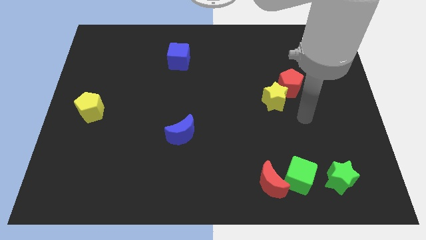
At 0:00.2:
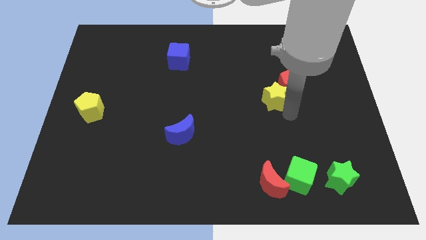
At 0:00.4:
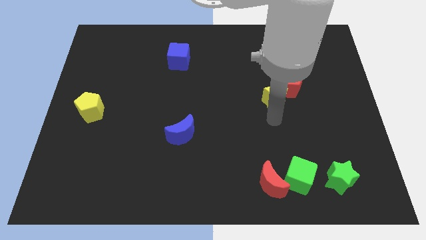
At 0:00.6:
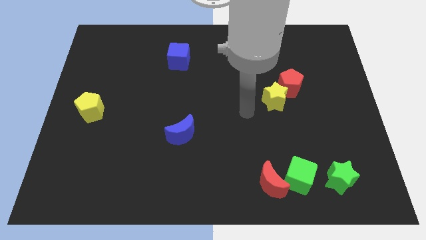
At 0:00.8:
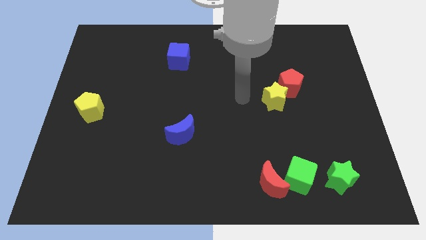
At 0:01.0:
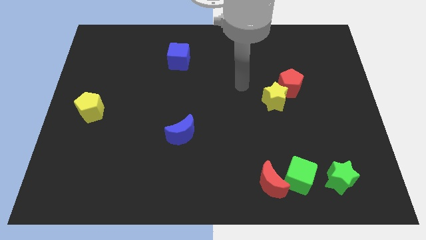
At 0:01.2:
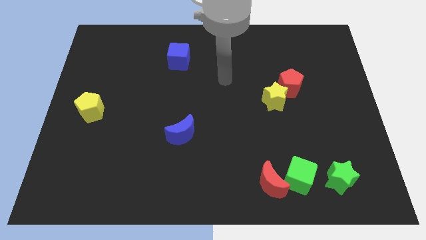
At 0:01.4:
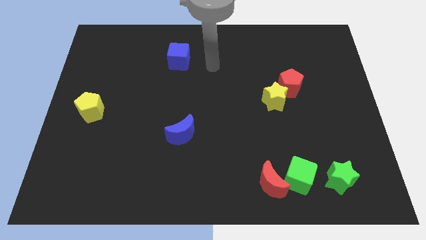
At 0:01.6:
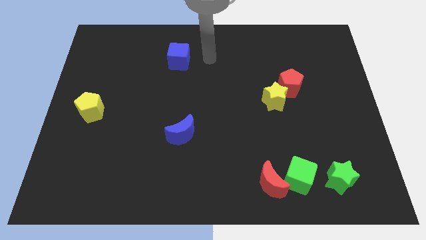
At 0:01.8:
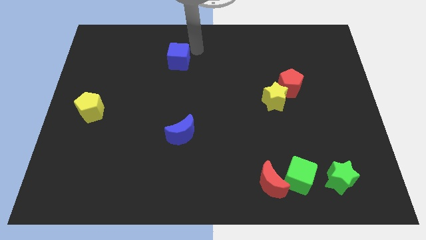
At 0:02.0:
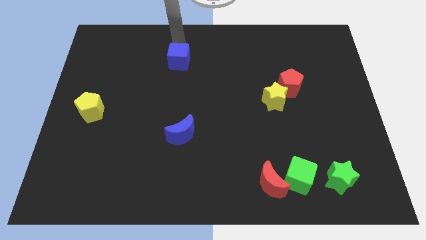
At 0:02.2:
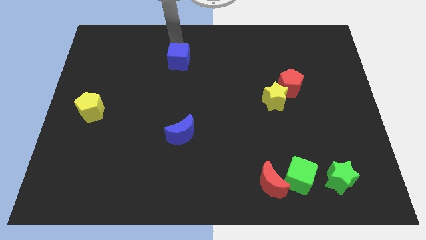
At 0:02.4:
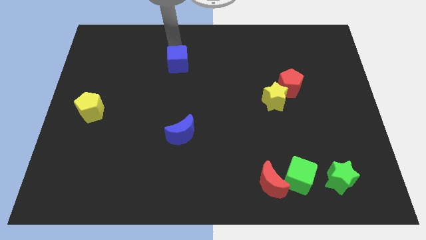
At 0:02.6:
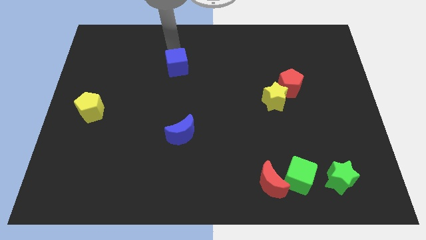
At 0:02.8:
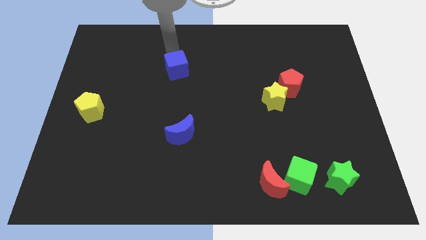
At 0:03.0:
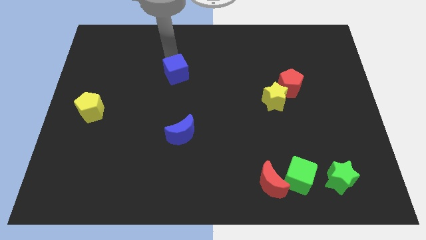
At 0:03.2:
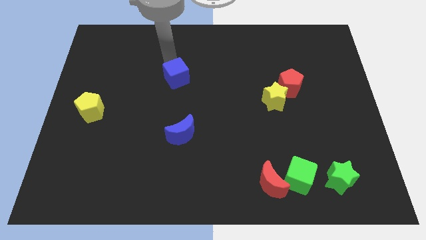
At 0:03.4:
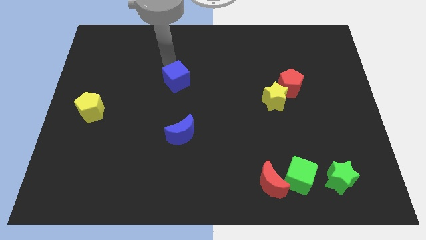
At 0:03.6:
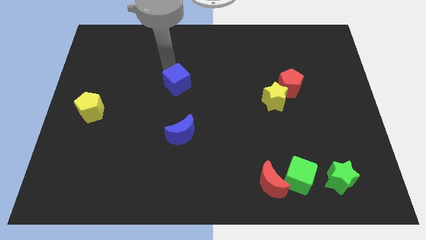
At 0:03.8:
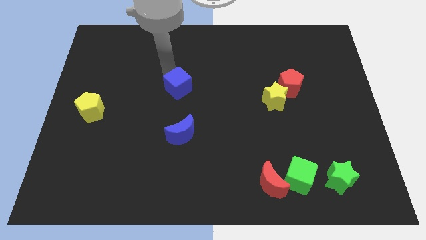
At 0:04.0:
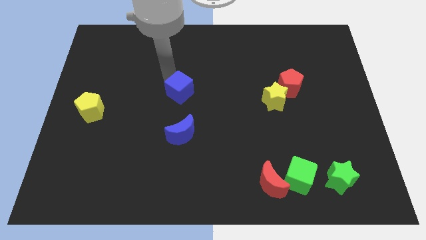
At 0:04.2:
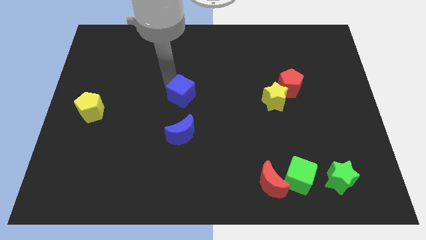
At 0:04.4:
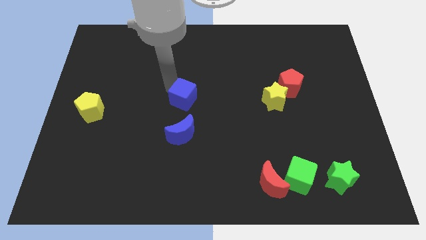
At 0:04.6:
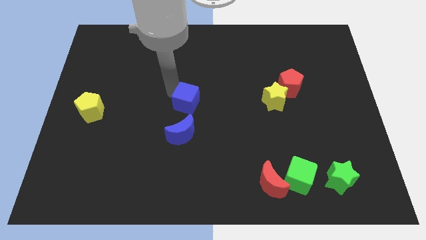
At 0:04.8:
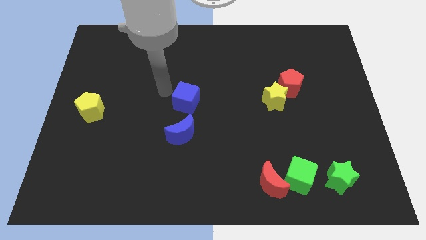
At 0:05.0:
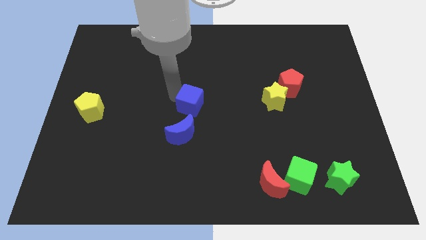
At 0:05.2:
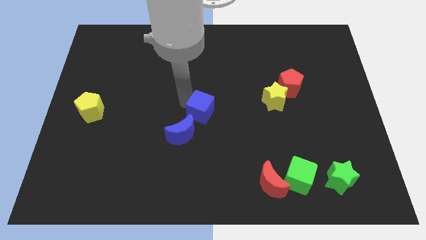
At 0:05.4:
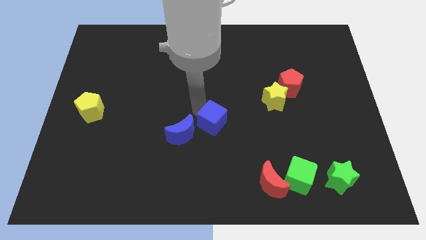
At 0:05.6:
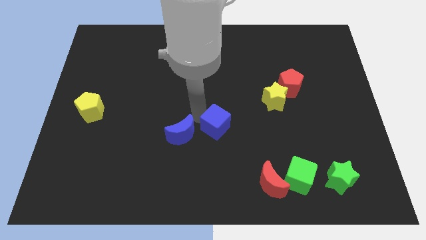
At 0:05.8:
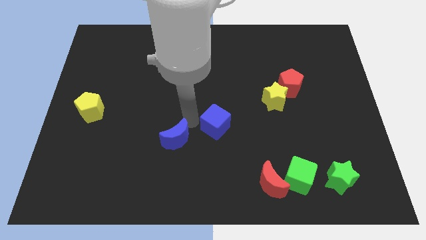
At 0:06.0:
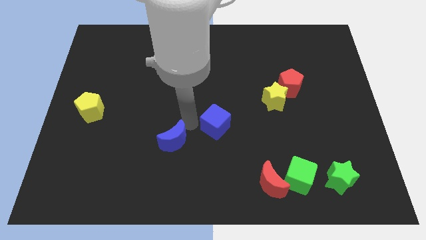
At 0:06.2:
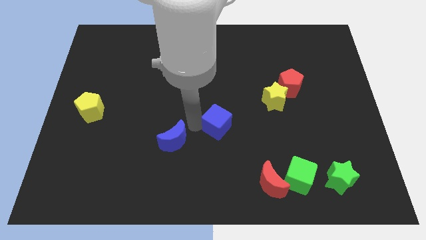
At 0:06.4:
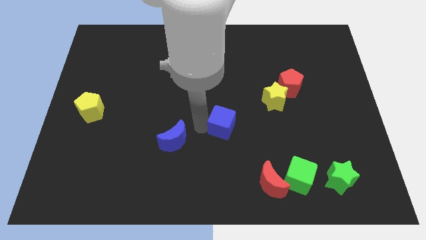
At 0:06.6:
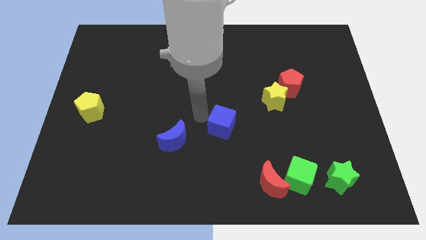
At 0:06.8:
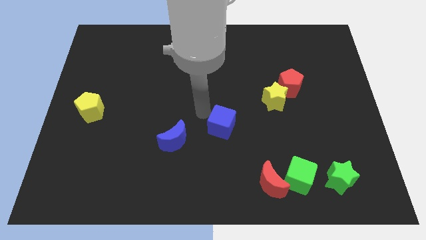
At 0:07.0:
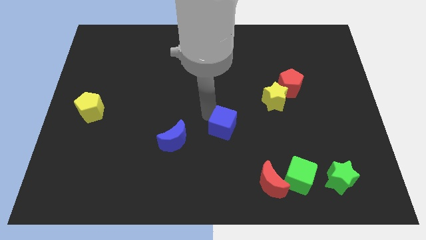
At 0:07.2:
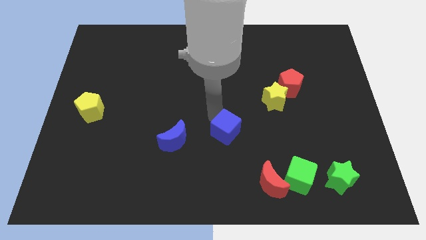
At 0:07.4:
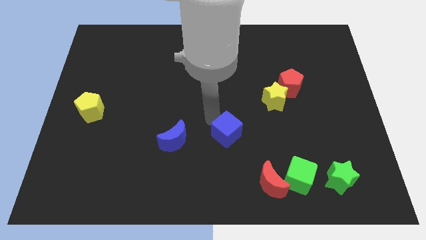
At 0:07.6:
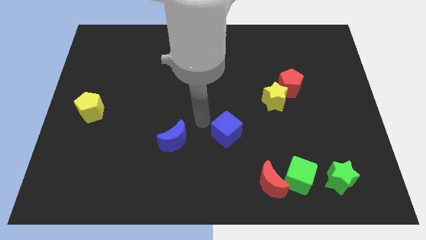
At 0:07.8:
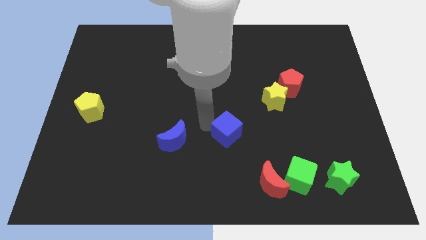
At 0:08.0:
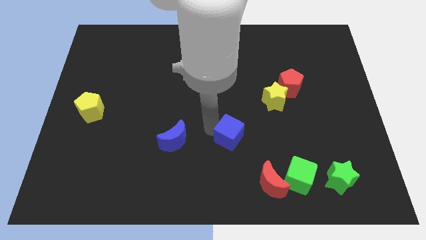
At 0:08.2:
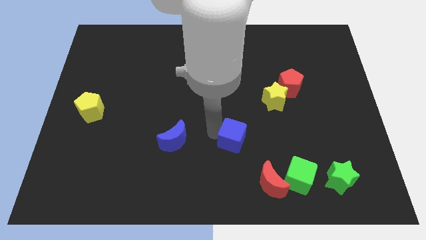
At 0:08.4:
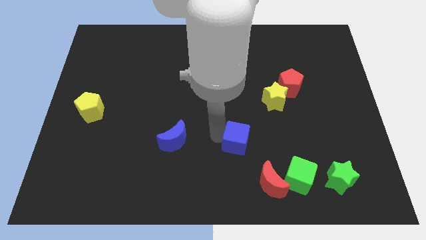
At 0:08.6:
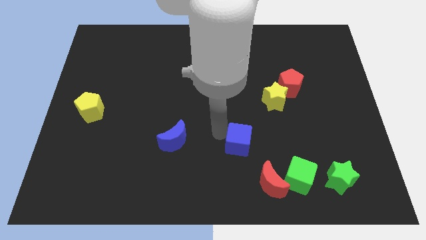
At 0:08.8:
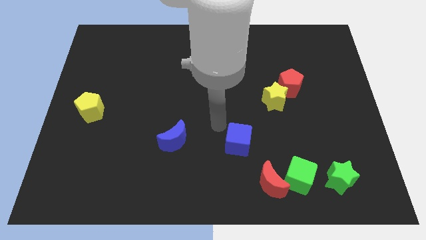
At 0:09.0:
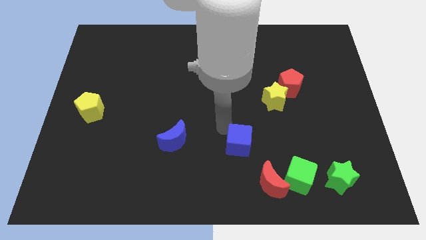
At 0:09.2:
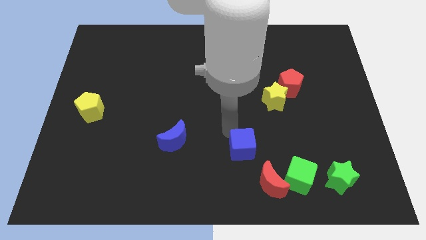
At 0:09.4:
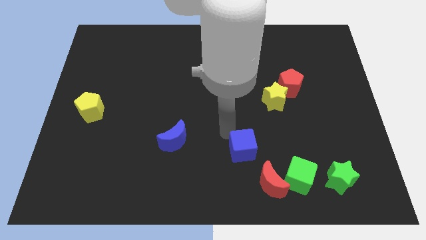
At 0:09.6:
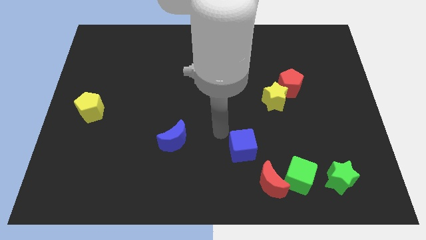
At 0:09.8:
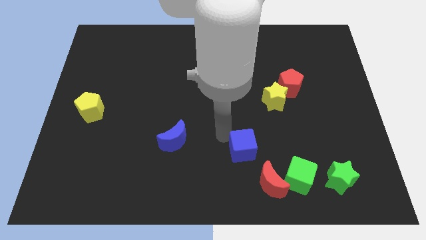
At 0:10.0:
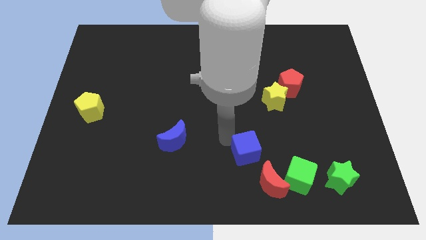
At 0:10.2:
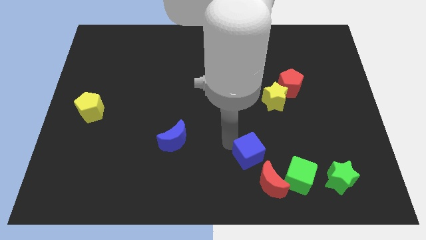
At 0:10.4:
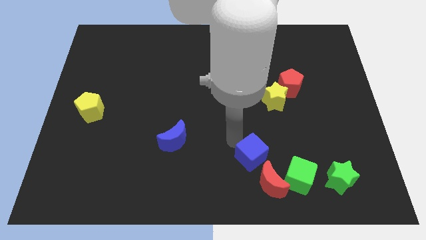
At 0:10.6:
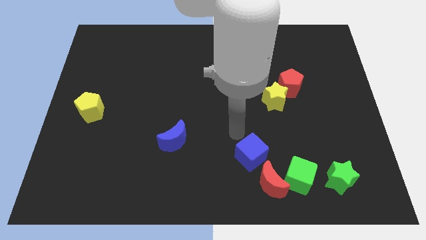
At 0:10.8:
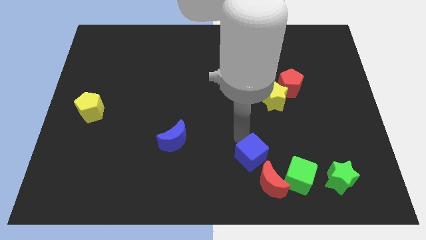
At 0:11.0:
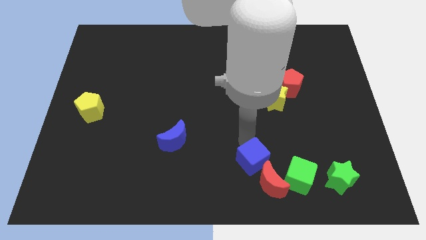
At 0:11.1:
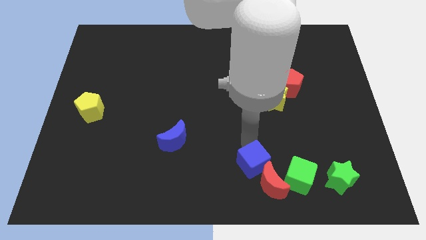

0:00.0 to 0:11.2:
move the blue cube to the red moon

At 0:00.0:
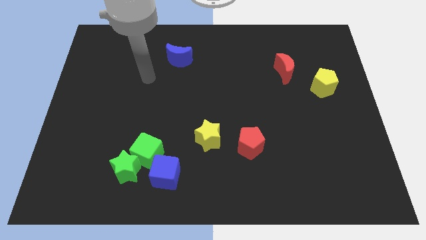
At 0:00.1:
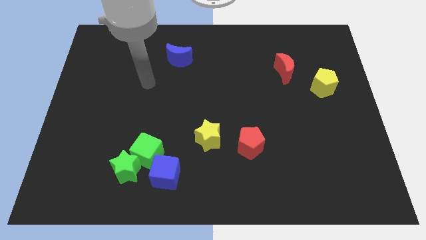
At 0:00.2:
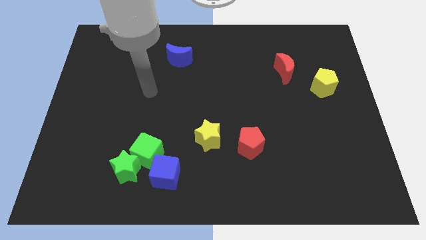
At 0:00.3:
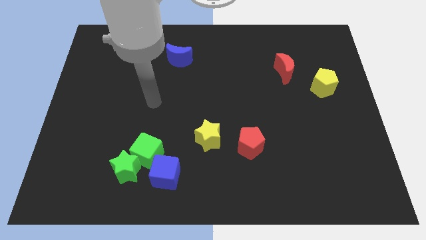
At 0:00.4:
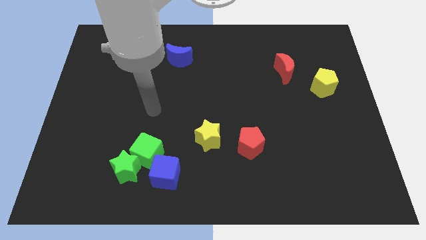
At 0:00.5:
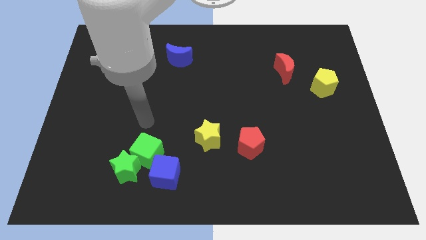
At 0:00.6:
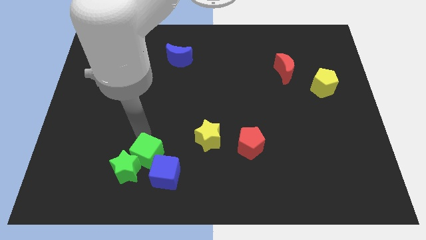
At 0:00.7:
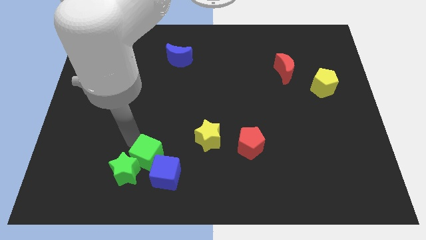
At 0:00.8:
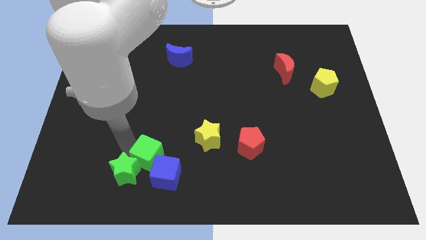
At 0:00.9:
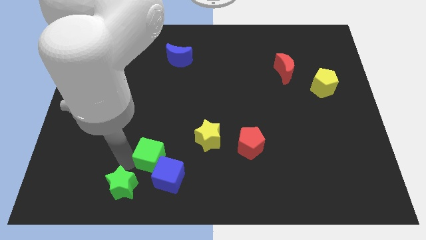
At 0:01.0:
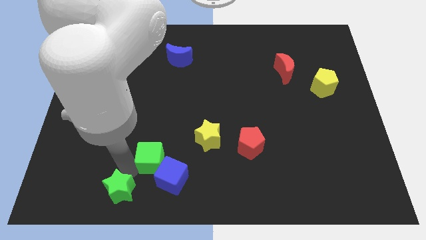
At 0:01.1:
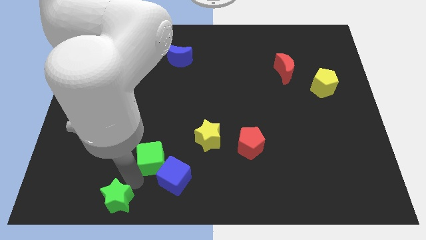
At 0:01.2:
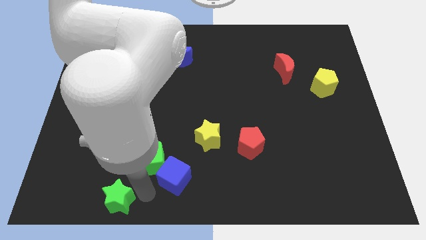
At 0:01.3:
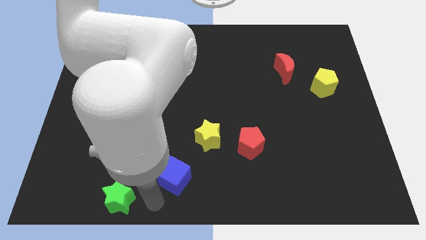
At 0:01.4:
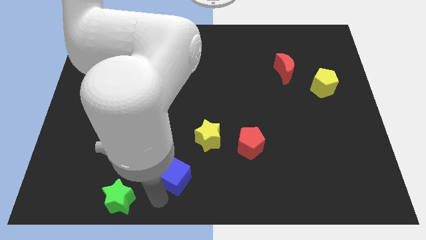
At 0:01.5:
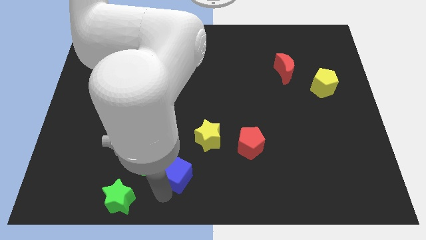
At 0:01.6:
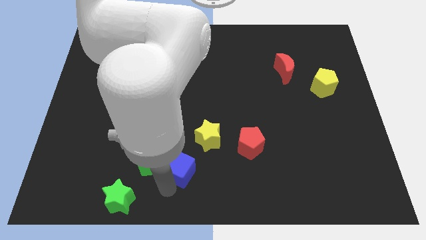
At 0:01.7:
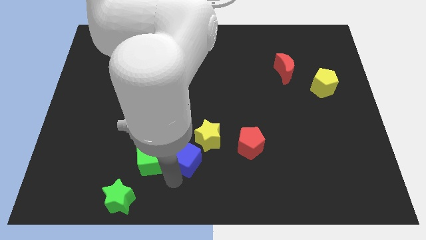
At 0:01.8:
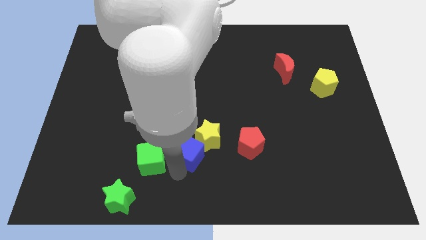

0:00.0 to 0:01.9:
move the blue cube towards the yellow star
